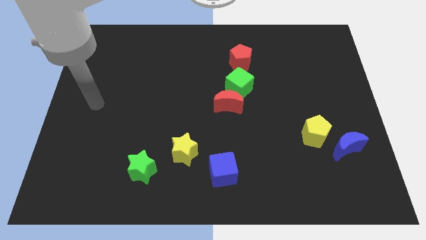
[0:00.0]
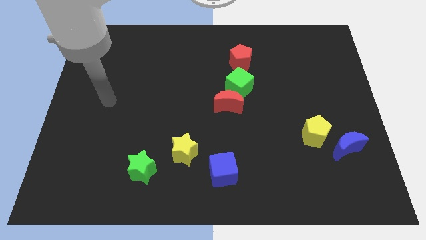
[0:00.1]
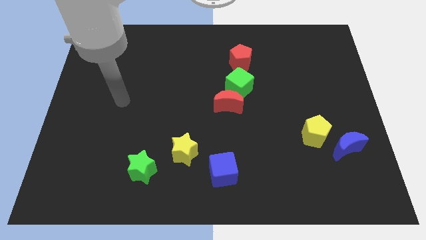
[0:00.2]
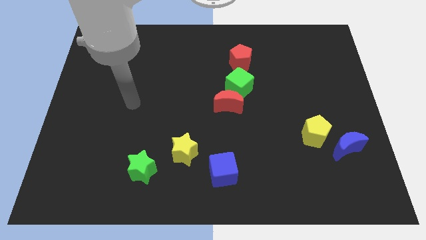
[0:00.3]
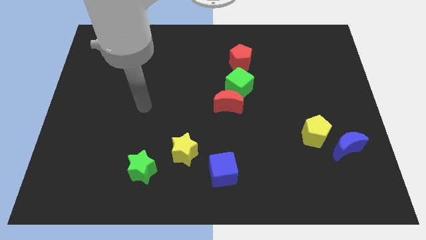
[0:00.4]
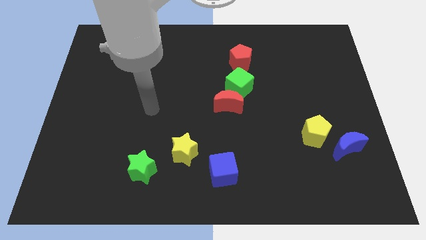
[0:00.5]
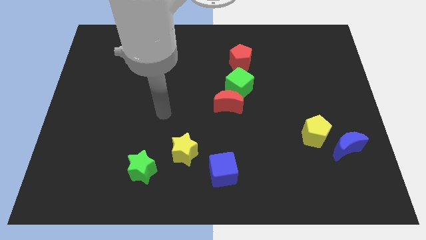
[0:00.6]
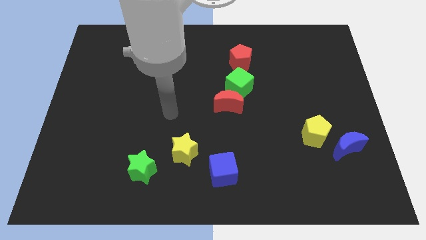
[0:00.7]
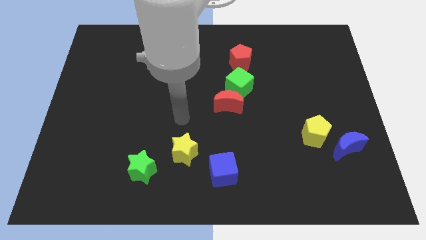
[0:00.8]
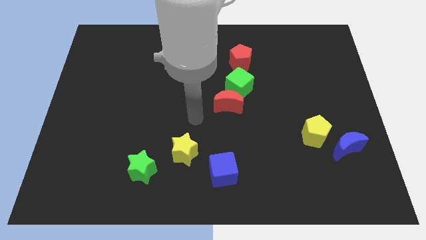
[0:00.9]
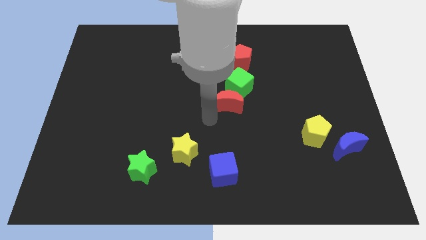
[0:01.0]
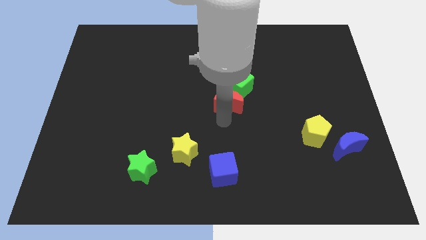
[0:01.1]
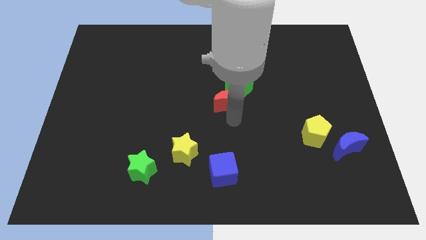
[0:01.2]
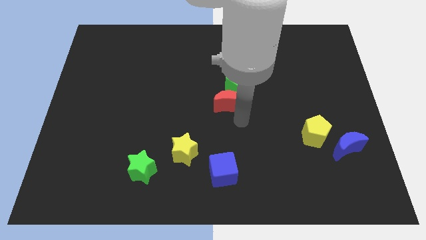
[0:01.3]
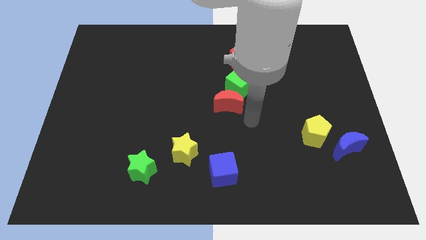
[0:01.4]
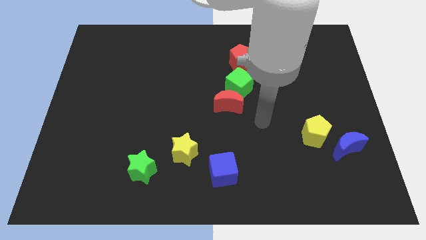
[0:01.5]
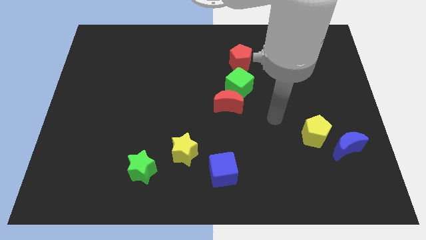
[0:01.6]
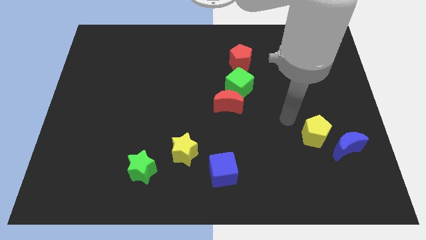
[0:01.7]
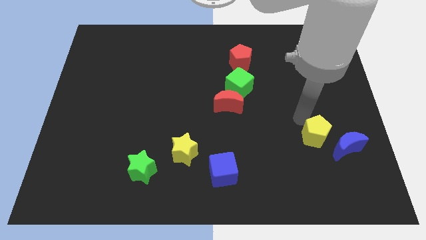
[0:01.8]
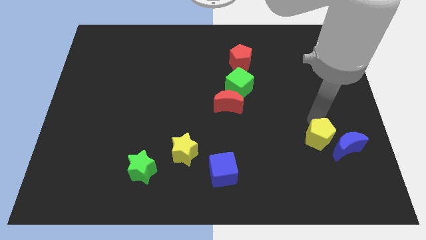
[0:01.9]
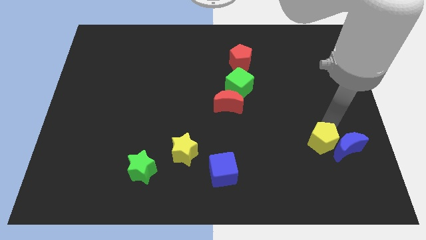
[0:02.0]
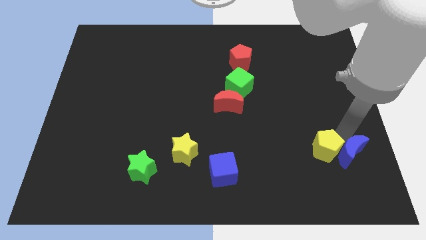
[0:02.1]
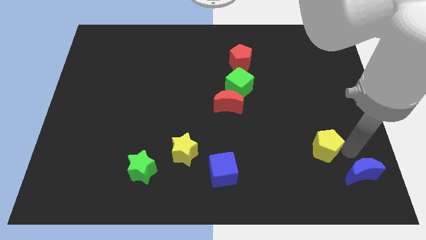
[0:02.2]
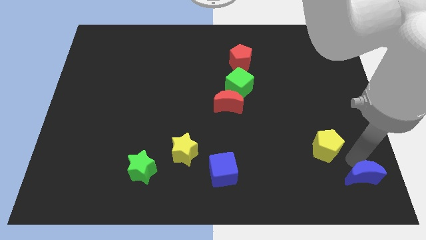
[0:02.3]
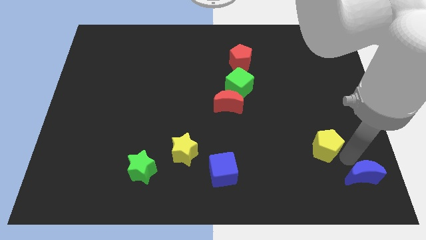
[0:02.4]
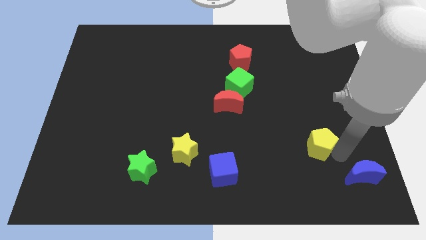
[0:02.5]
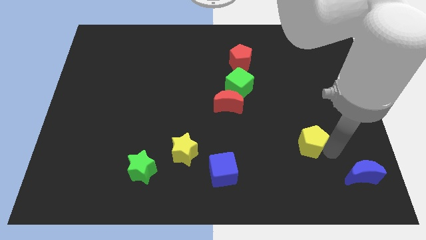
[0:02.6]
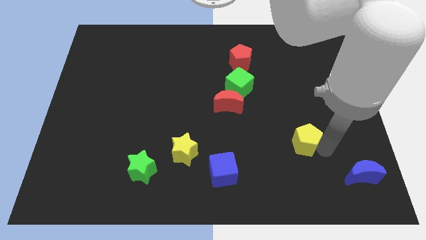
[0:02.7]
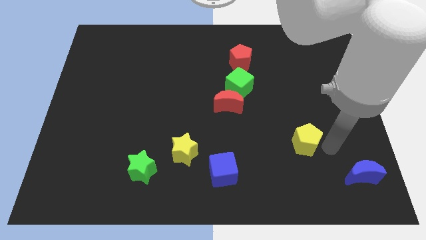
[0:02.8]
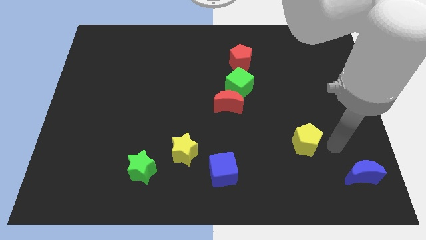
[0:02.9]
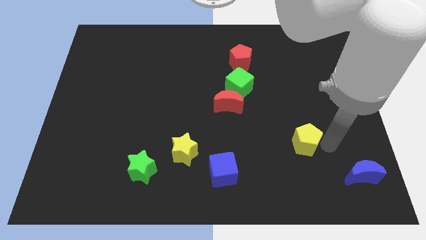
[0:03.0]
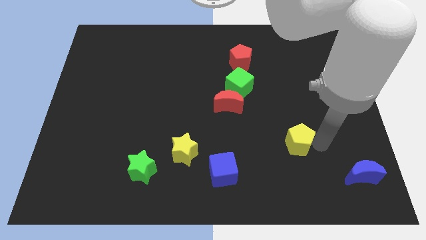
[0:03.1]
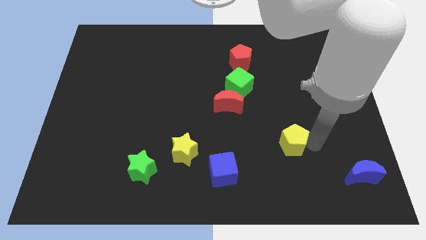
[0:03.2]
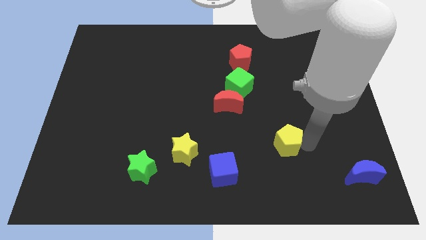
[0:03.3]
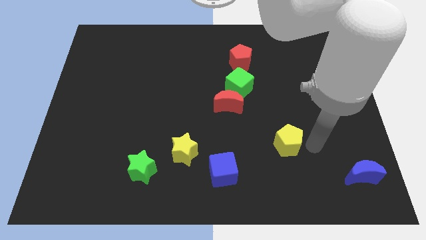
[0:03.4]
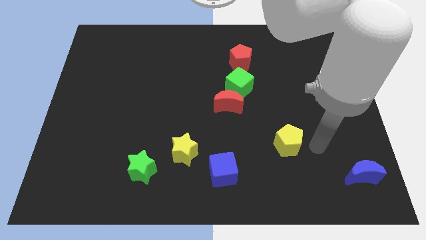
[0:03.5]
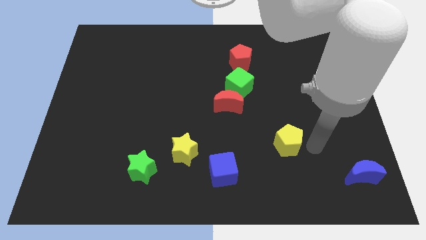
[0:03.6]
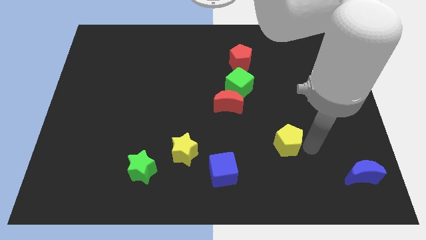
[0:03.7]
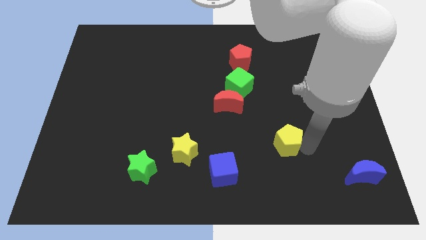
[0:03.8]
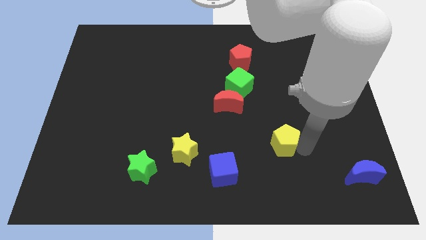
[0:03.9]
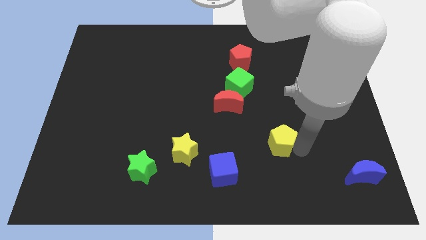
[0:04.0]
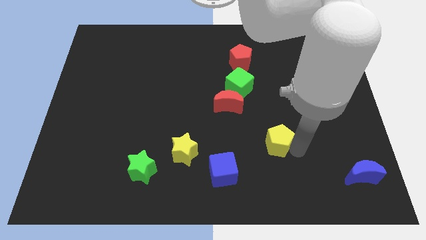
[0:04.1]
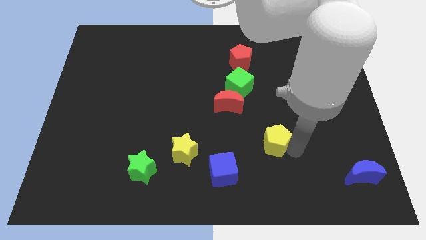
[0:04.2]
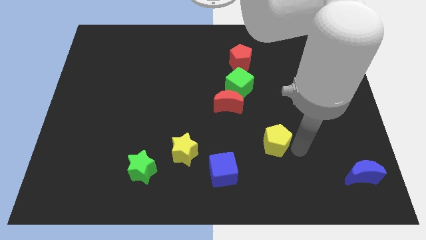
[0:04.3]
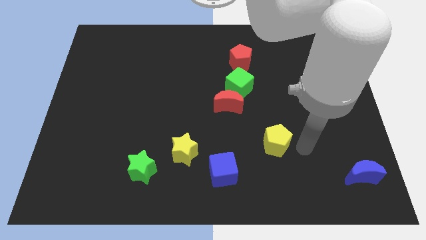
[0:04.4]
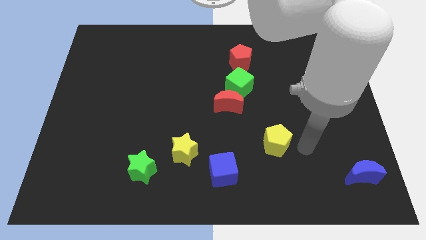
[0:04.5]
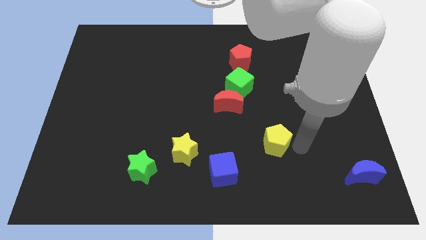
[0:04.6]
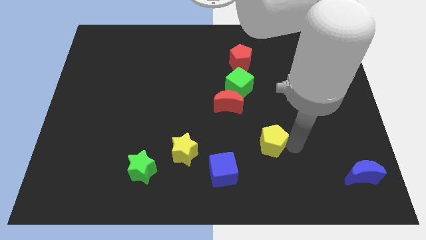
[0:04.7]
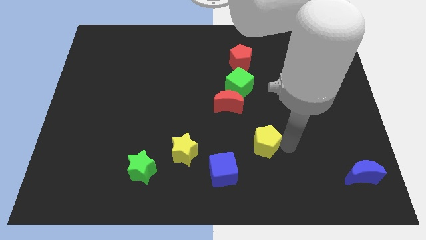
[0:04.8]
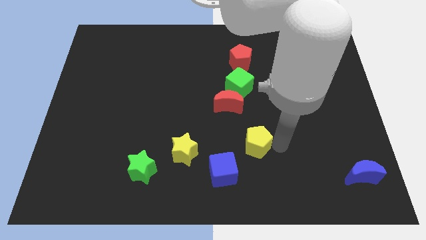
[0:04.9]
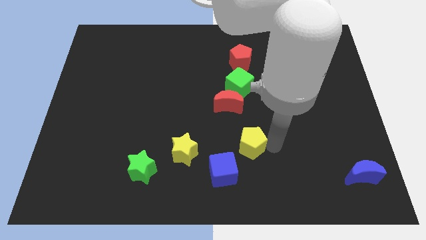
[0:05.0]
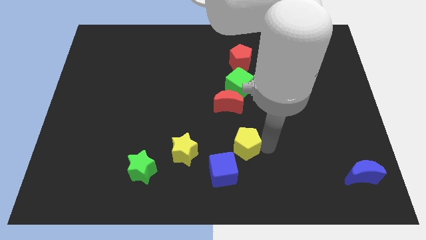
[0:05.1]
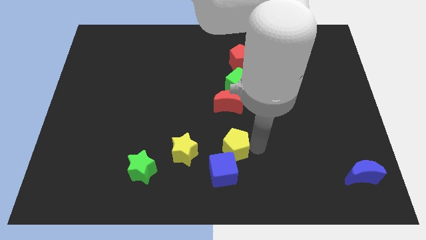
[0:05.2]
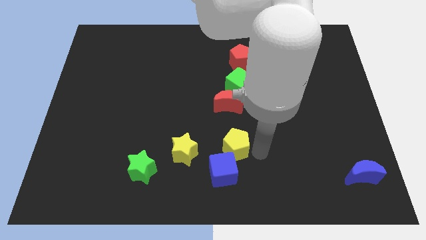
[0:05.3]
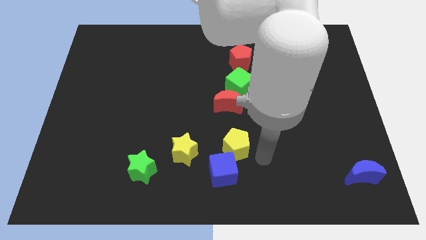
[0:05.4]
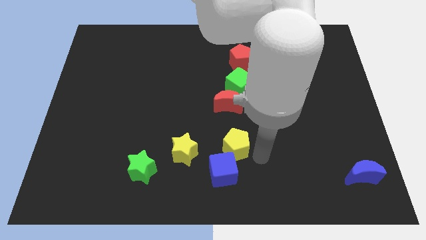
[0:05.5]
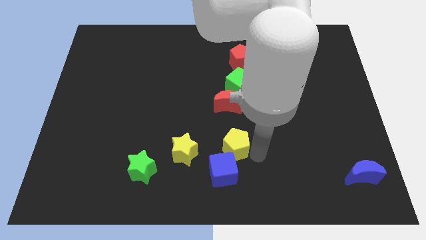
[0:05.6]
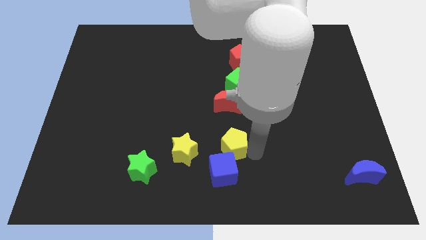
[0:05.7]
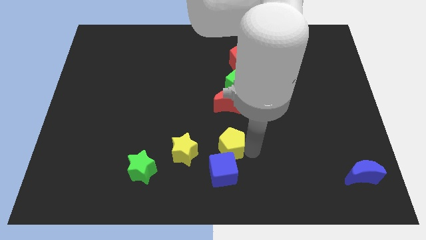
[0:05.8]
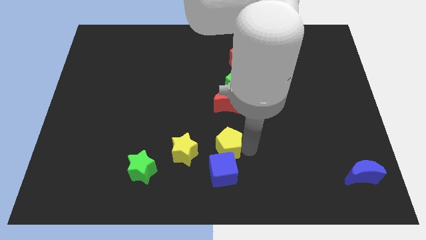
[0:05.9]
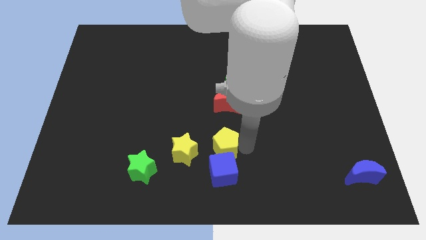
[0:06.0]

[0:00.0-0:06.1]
move the yellow pentagon left

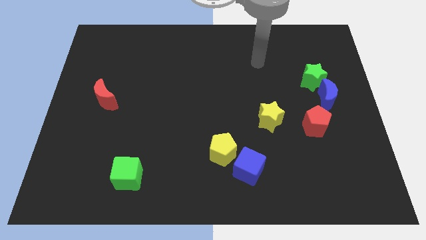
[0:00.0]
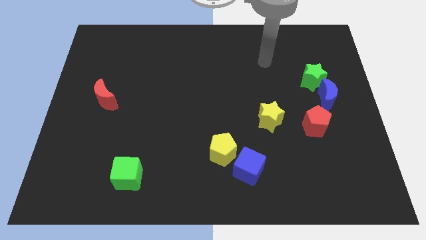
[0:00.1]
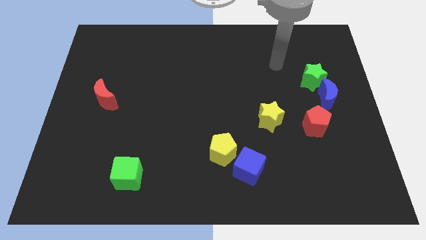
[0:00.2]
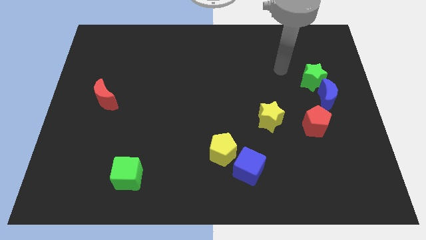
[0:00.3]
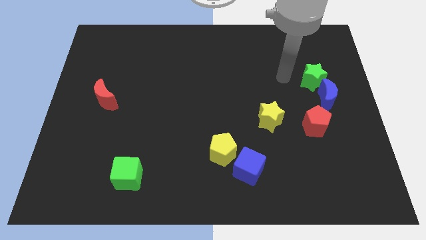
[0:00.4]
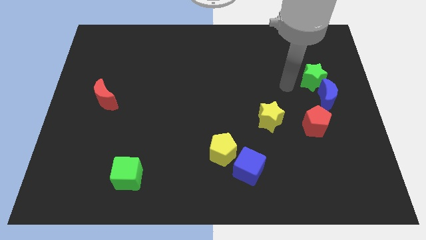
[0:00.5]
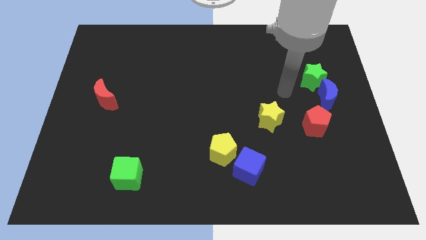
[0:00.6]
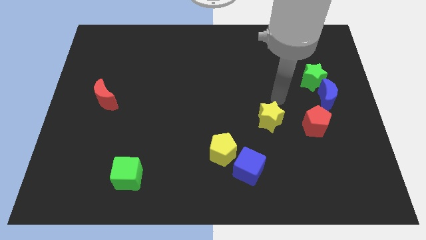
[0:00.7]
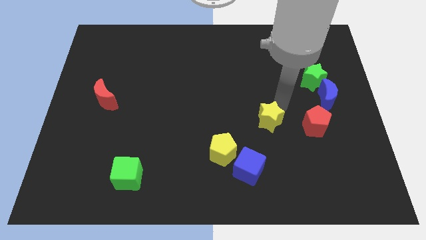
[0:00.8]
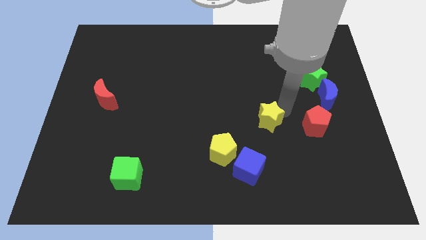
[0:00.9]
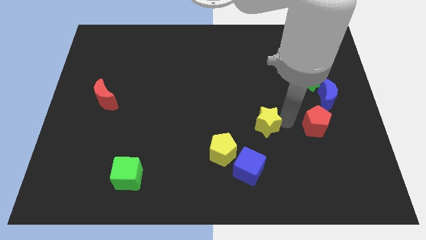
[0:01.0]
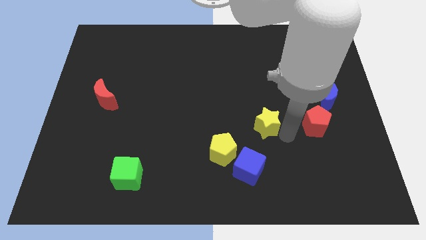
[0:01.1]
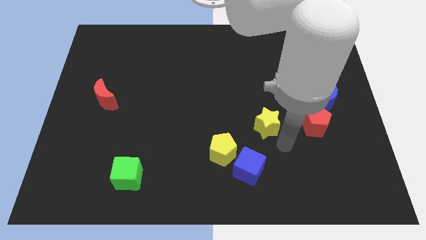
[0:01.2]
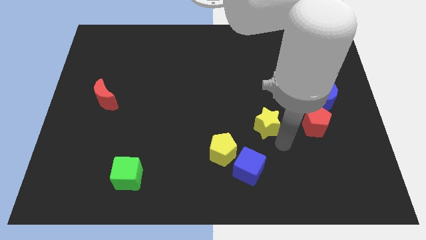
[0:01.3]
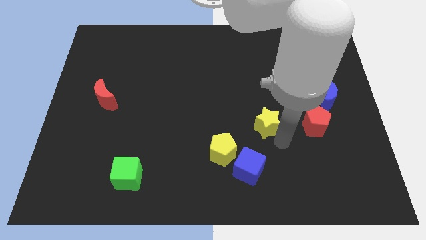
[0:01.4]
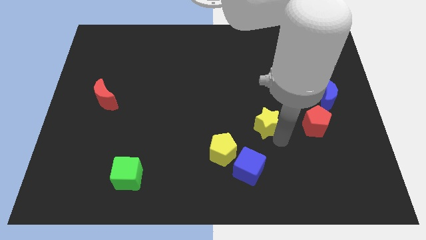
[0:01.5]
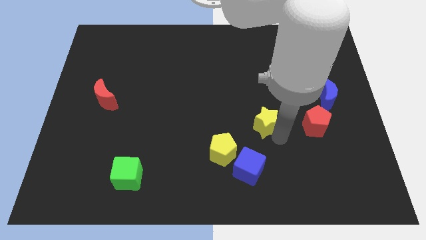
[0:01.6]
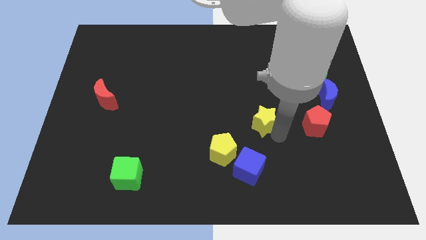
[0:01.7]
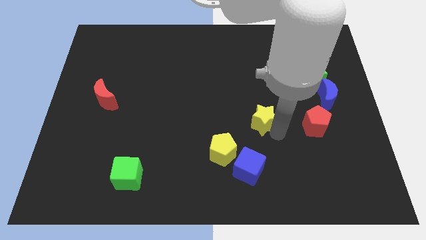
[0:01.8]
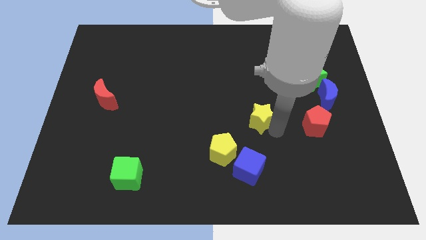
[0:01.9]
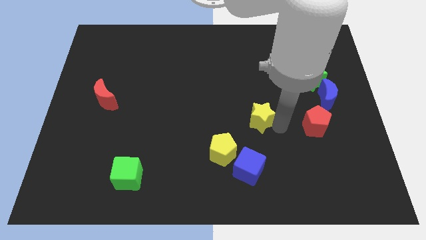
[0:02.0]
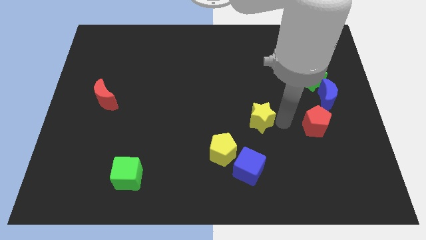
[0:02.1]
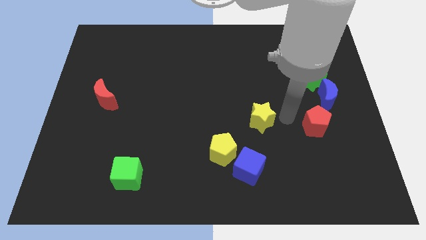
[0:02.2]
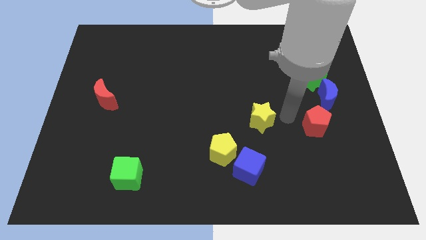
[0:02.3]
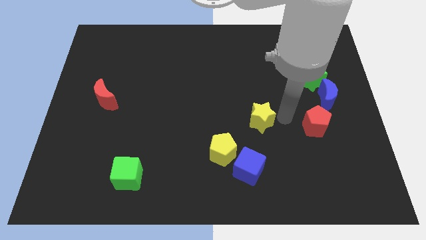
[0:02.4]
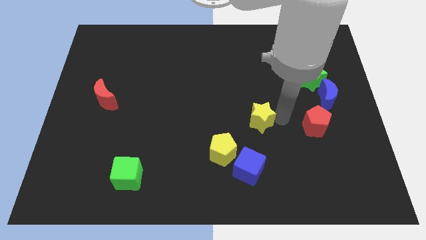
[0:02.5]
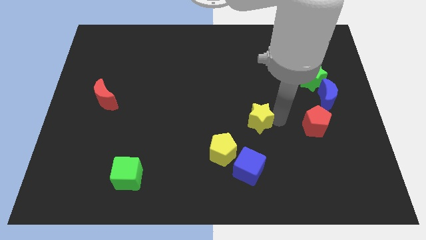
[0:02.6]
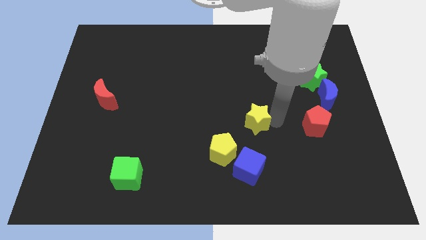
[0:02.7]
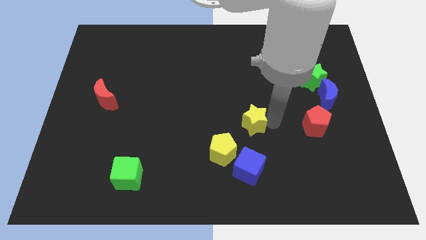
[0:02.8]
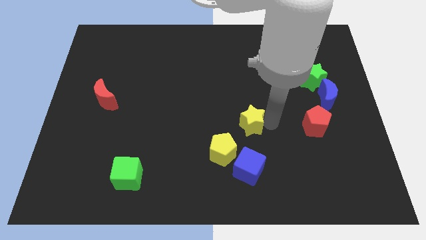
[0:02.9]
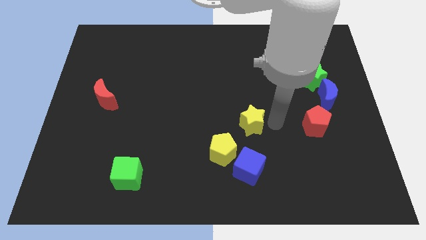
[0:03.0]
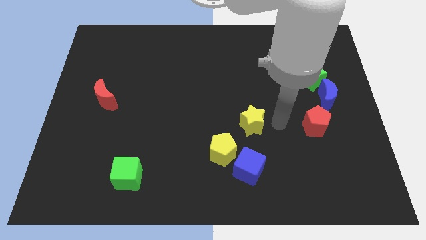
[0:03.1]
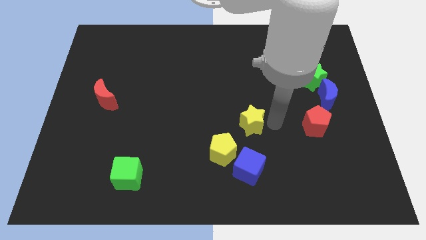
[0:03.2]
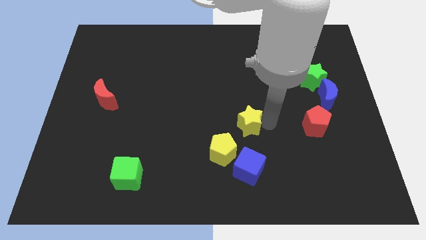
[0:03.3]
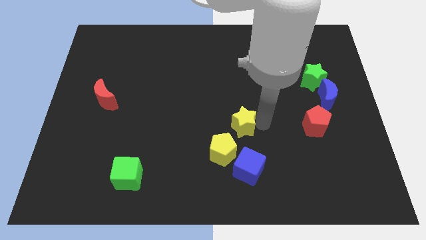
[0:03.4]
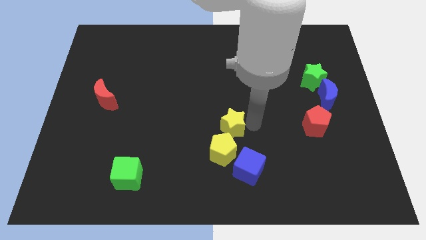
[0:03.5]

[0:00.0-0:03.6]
slide the yellow star to the left a bit
